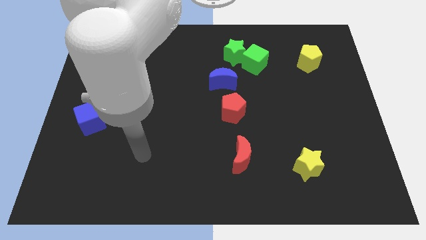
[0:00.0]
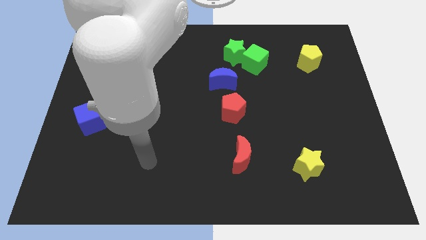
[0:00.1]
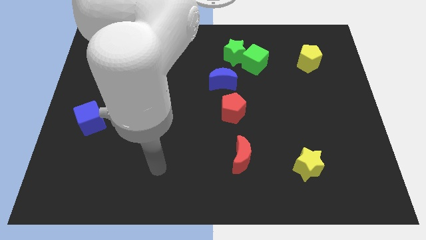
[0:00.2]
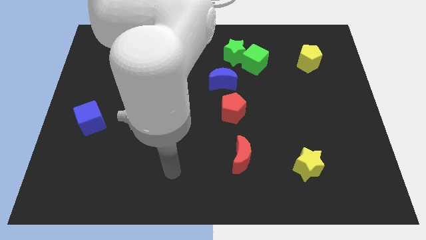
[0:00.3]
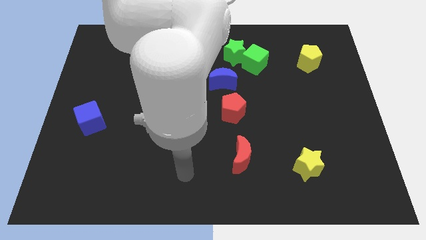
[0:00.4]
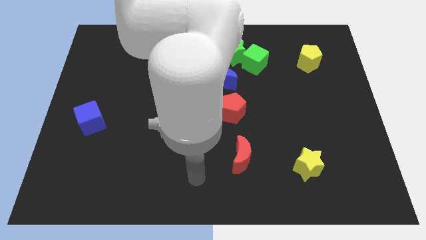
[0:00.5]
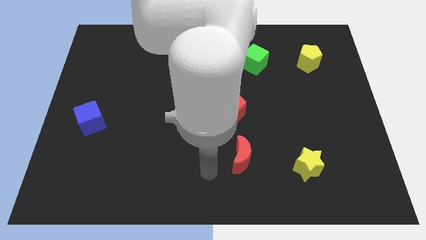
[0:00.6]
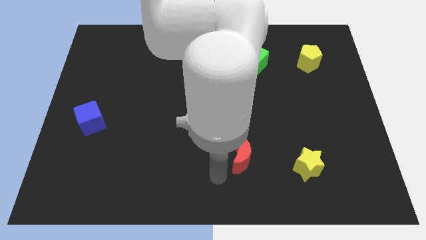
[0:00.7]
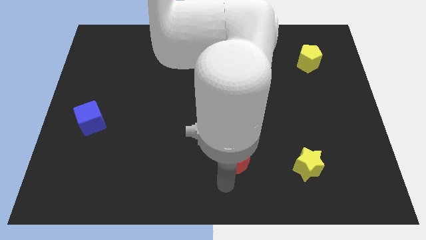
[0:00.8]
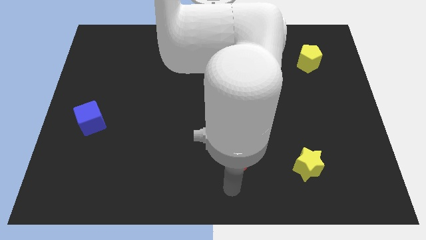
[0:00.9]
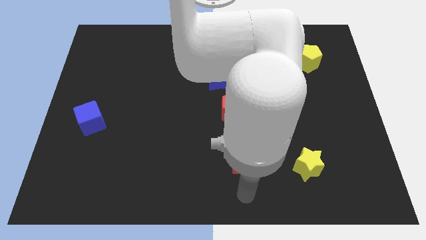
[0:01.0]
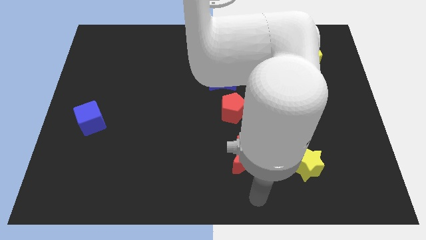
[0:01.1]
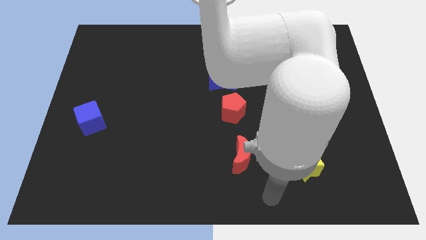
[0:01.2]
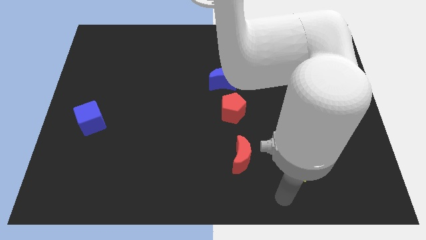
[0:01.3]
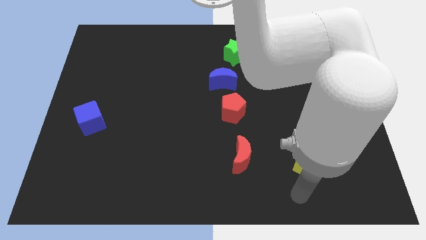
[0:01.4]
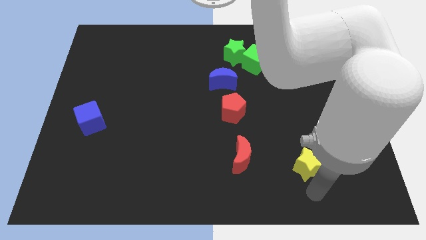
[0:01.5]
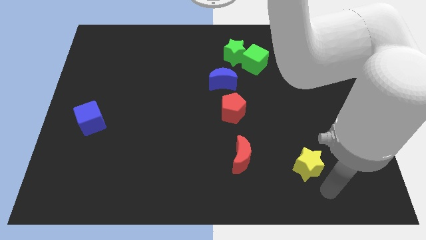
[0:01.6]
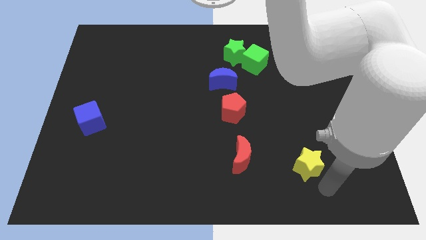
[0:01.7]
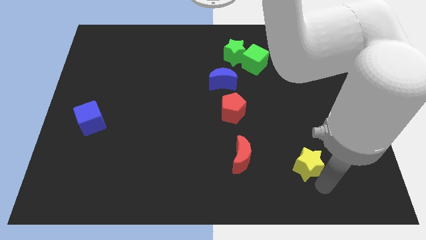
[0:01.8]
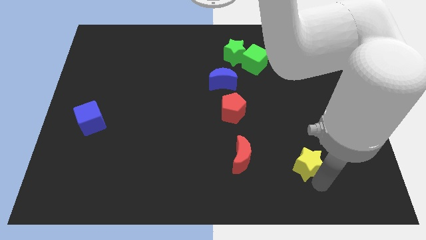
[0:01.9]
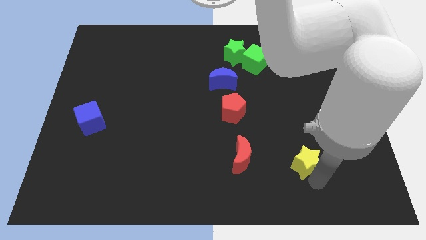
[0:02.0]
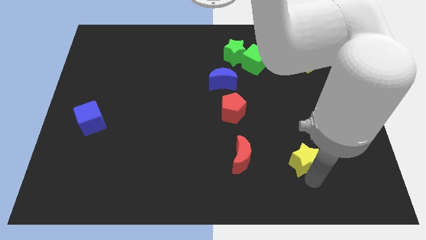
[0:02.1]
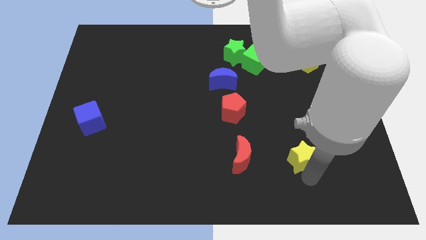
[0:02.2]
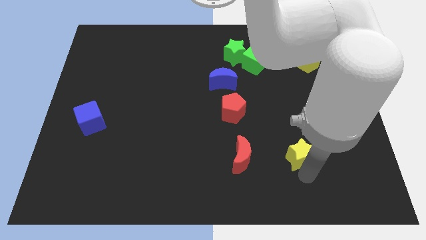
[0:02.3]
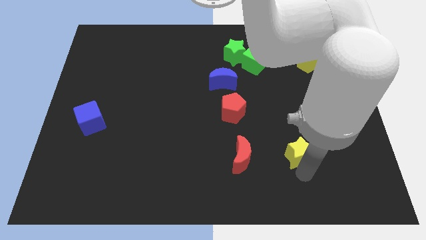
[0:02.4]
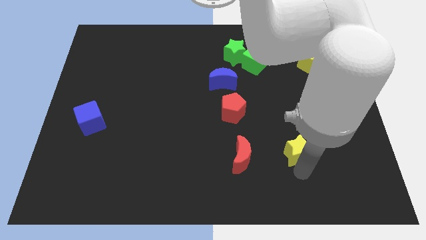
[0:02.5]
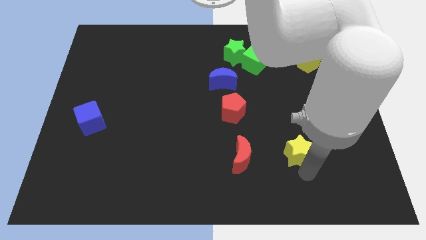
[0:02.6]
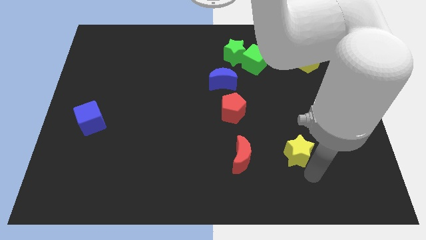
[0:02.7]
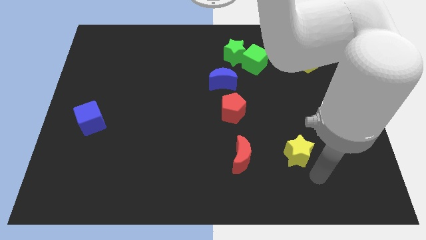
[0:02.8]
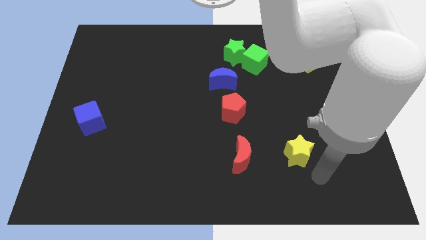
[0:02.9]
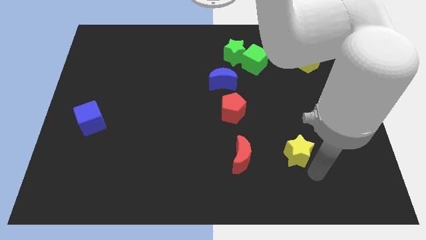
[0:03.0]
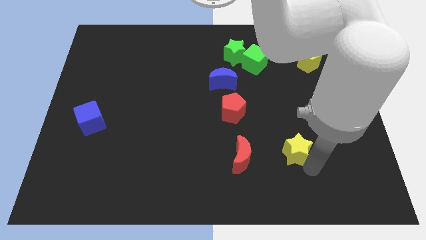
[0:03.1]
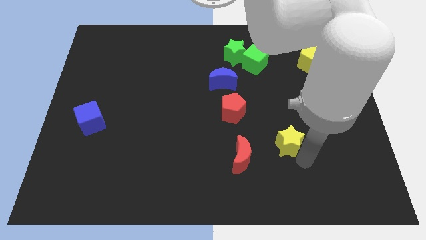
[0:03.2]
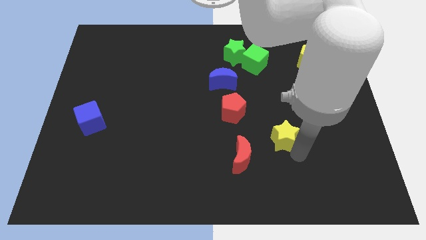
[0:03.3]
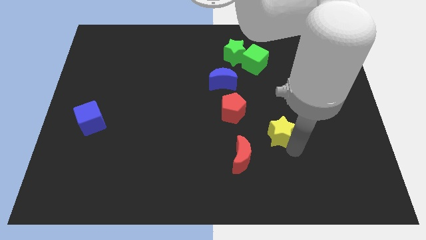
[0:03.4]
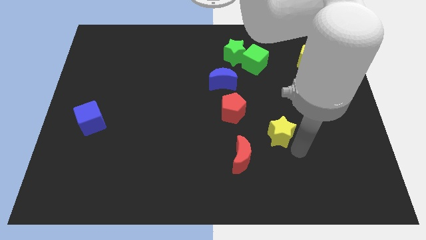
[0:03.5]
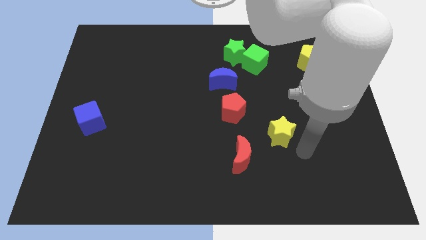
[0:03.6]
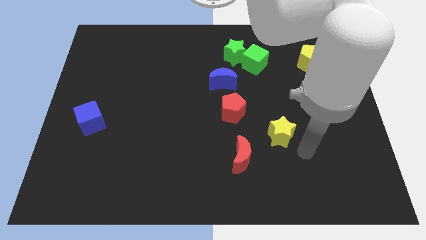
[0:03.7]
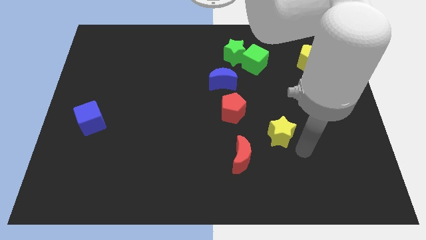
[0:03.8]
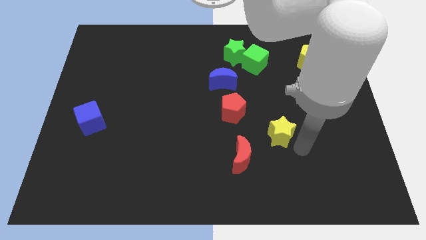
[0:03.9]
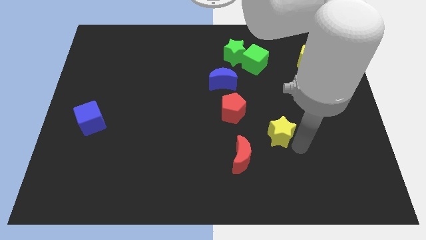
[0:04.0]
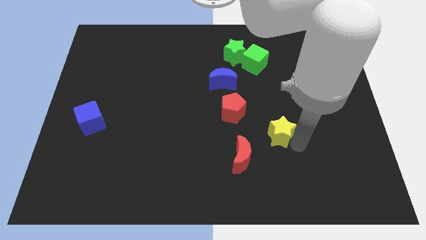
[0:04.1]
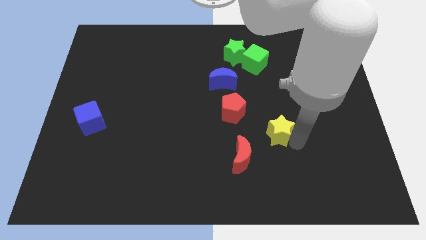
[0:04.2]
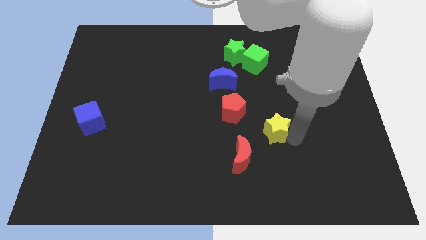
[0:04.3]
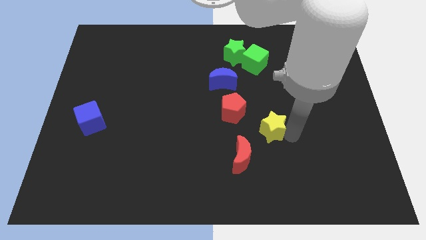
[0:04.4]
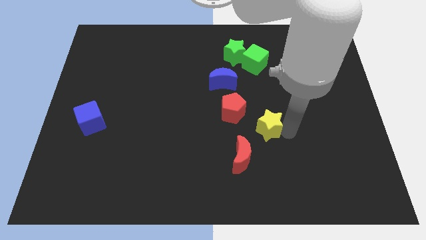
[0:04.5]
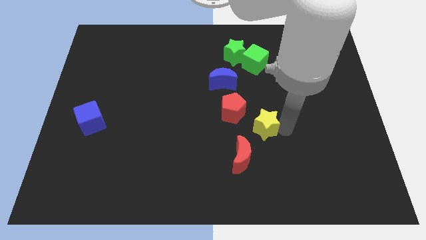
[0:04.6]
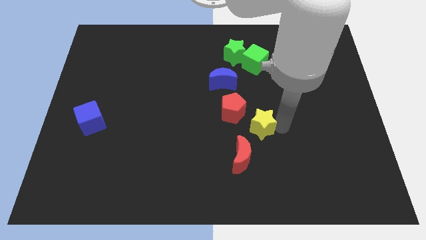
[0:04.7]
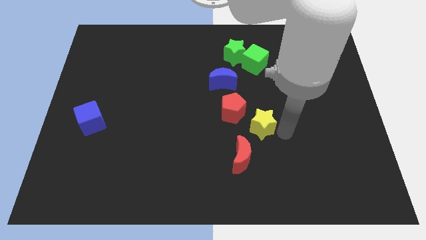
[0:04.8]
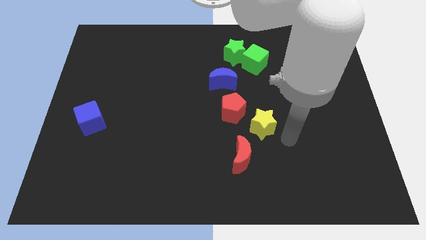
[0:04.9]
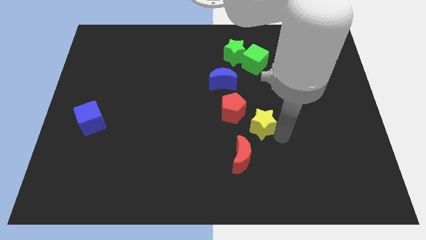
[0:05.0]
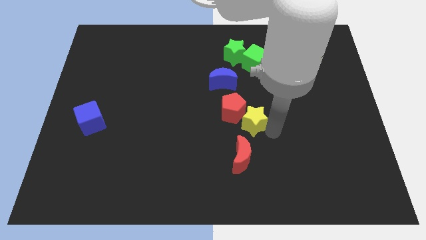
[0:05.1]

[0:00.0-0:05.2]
push the yellow star next to the red pentagon

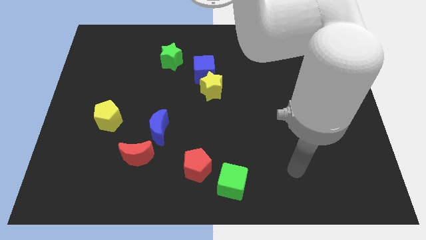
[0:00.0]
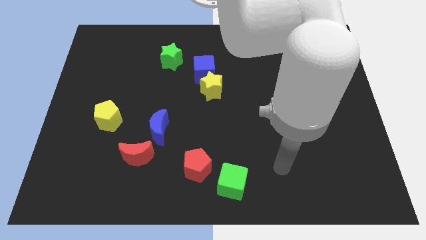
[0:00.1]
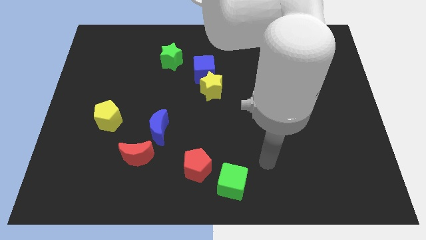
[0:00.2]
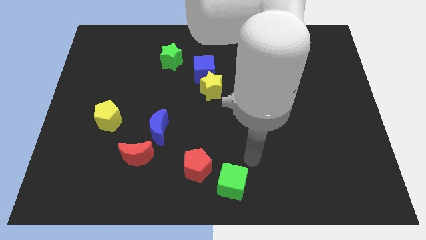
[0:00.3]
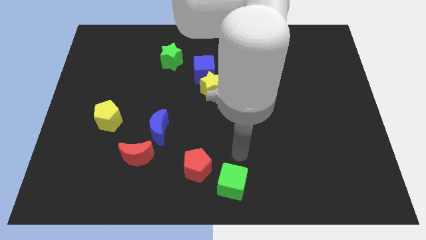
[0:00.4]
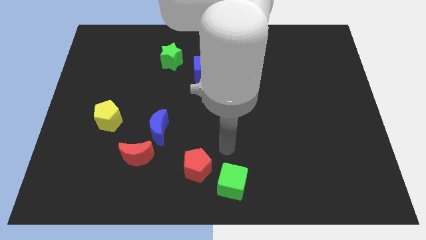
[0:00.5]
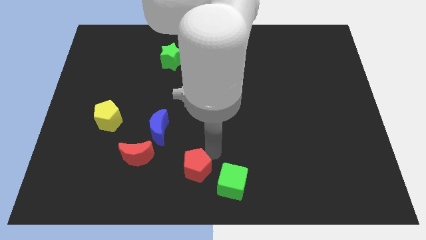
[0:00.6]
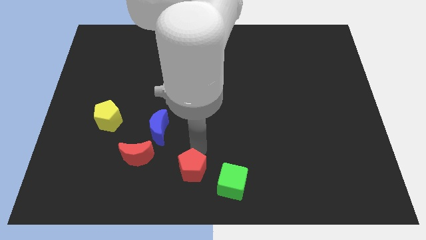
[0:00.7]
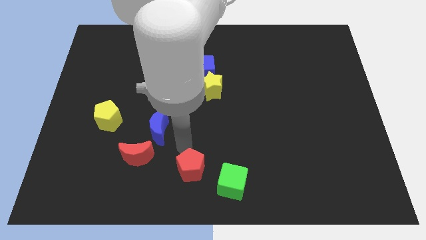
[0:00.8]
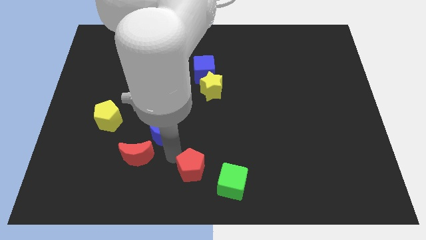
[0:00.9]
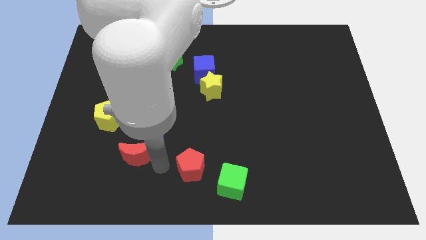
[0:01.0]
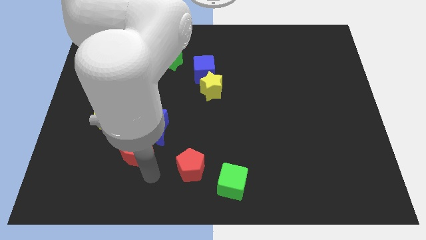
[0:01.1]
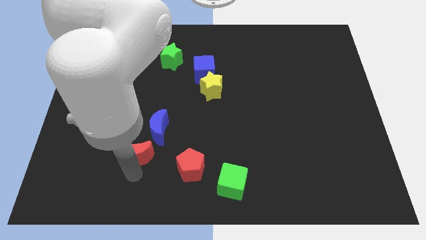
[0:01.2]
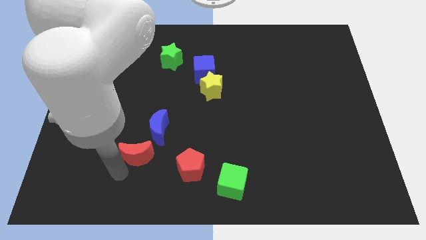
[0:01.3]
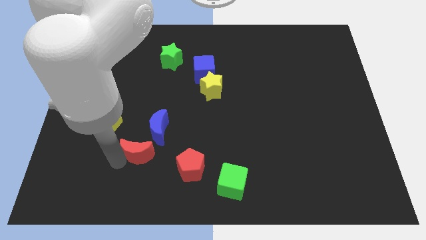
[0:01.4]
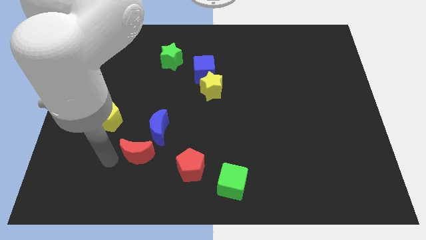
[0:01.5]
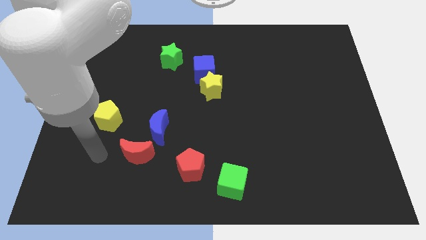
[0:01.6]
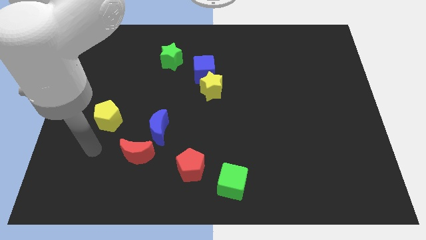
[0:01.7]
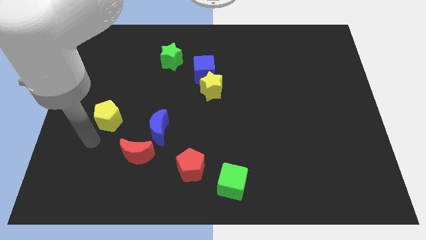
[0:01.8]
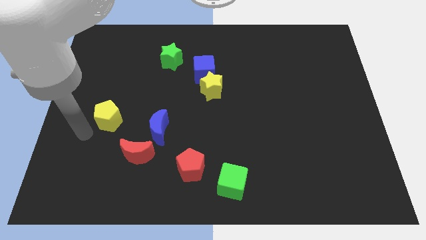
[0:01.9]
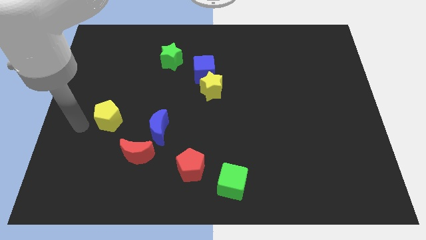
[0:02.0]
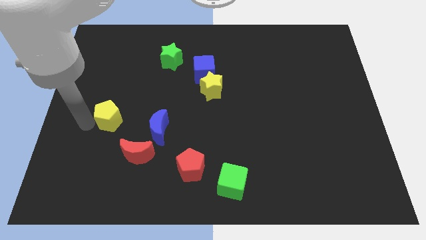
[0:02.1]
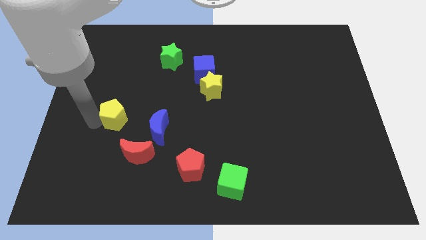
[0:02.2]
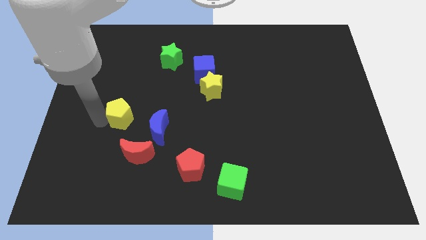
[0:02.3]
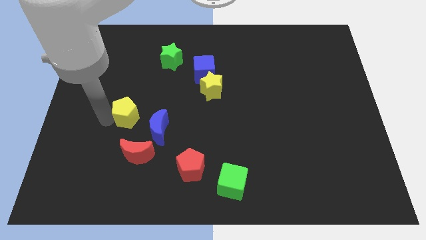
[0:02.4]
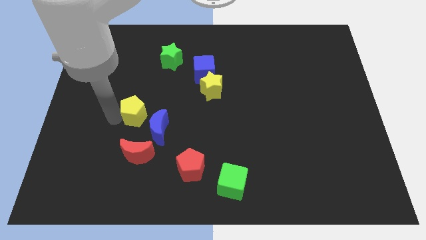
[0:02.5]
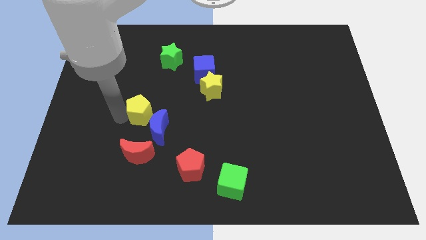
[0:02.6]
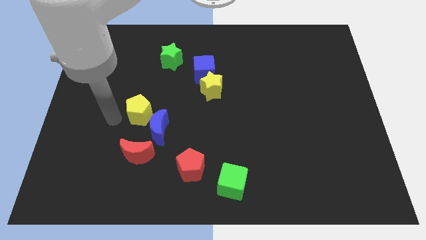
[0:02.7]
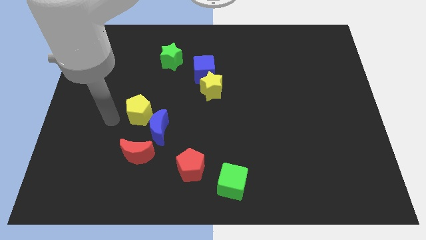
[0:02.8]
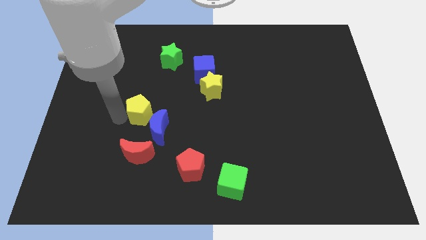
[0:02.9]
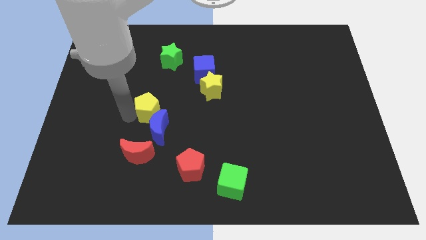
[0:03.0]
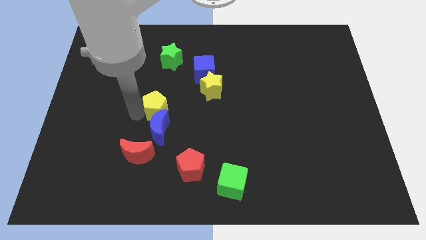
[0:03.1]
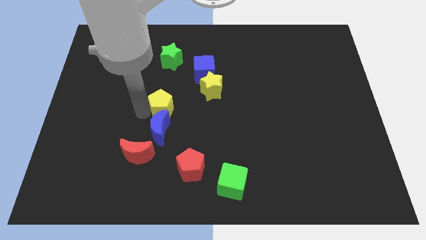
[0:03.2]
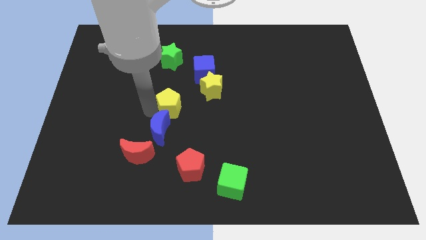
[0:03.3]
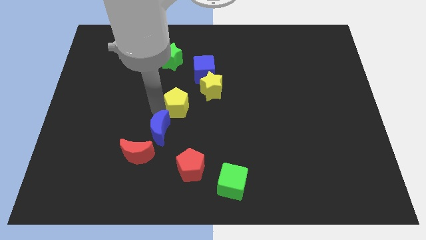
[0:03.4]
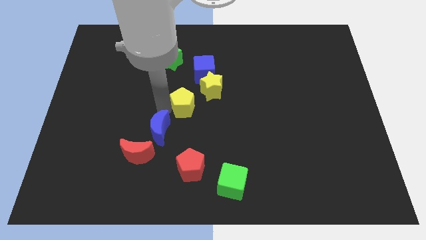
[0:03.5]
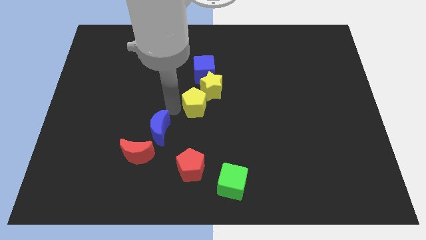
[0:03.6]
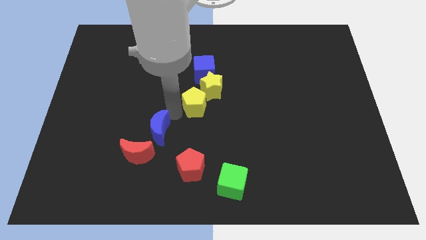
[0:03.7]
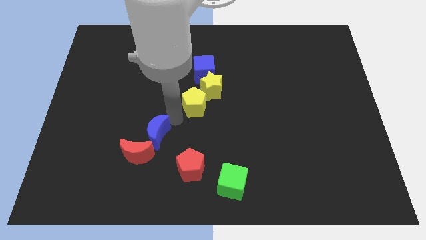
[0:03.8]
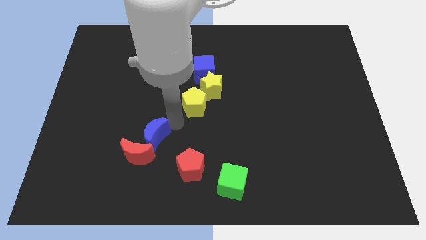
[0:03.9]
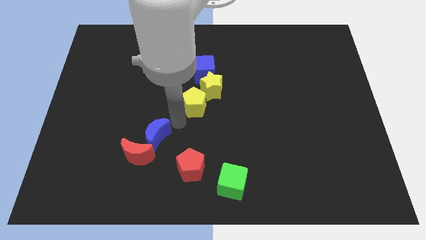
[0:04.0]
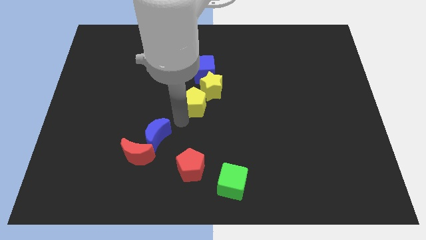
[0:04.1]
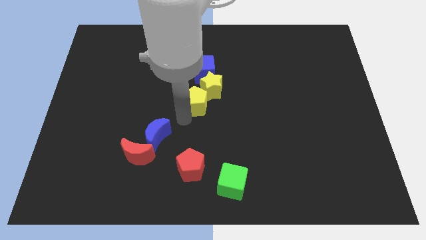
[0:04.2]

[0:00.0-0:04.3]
push the yellow pentagon next to the yellow star
